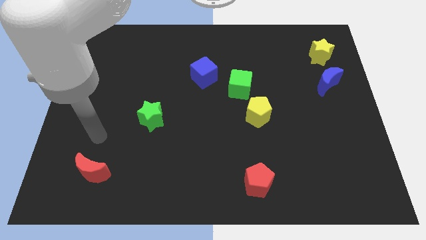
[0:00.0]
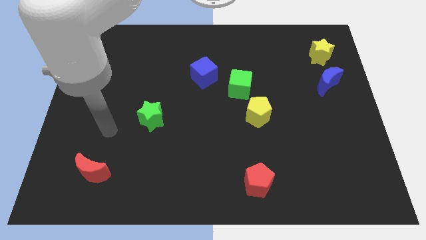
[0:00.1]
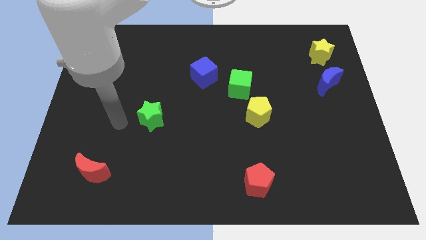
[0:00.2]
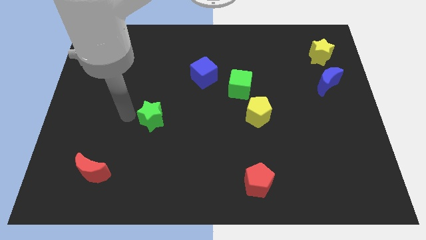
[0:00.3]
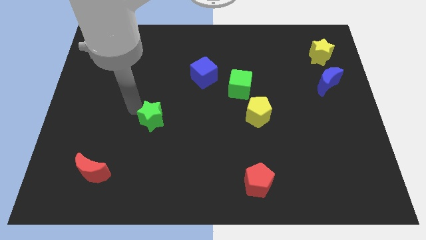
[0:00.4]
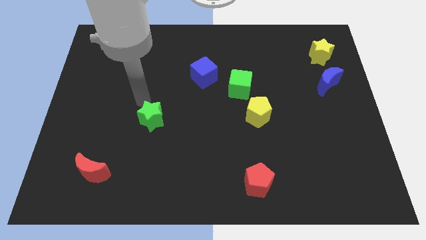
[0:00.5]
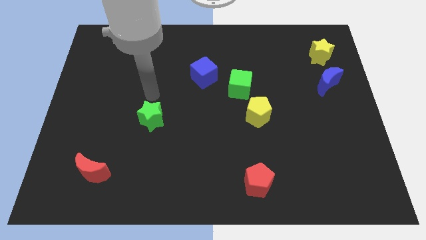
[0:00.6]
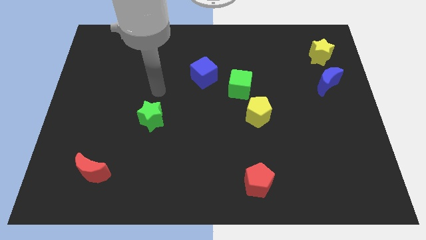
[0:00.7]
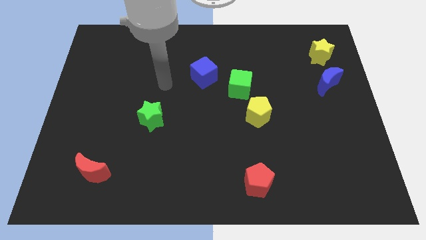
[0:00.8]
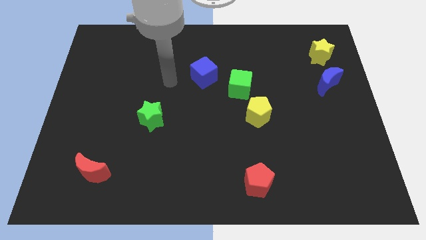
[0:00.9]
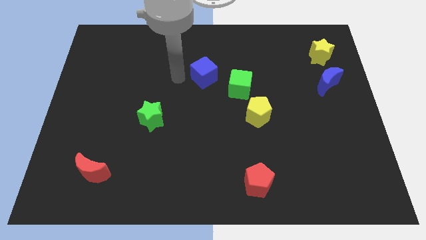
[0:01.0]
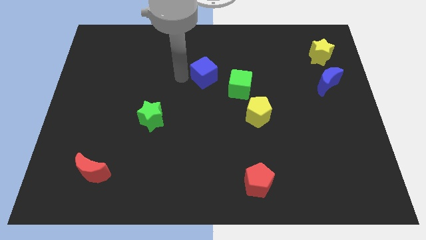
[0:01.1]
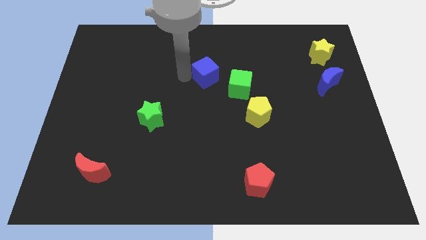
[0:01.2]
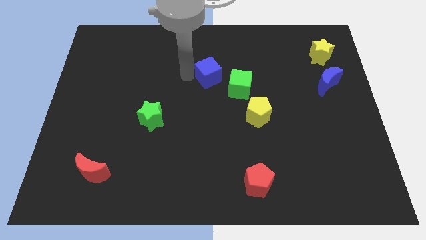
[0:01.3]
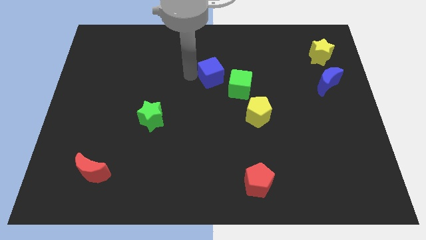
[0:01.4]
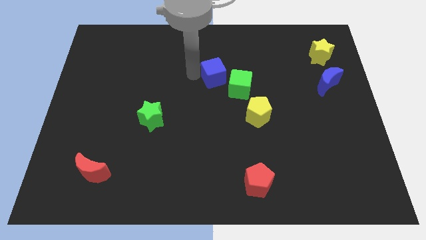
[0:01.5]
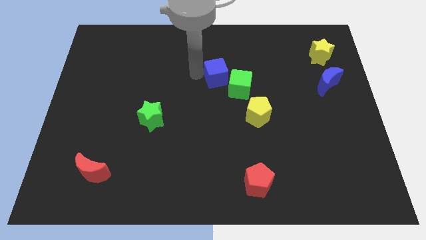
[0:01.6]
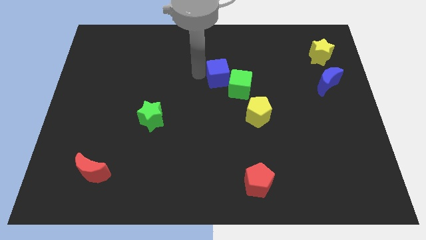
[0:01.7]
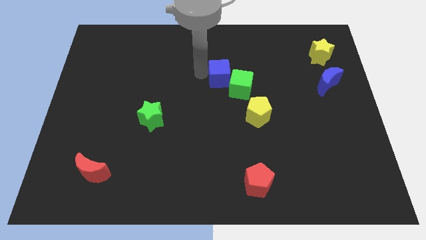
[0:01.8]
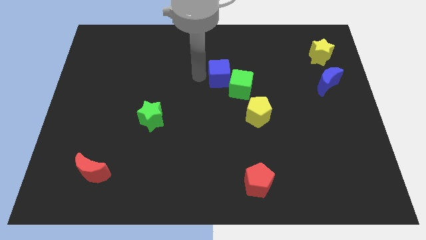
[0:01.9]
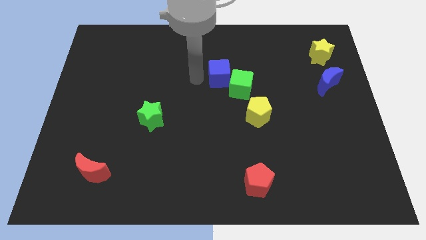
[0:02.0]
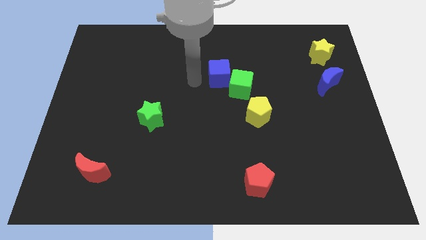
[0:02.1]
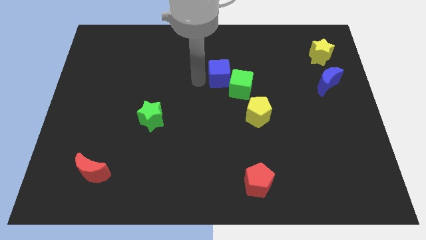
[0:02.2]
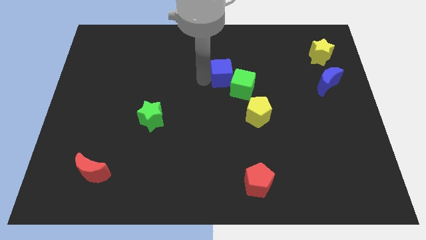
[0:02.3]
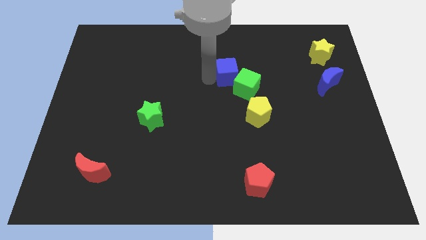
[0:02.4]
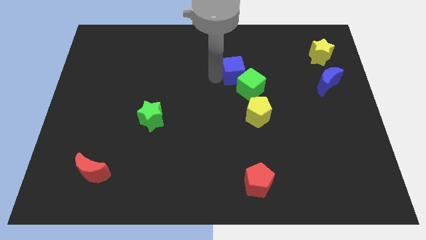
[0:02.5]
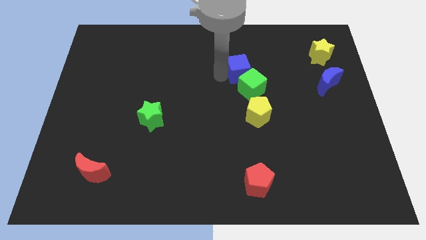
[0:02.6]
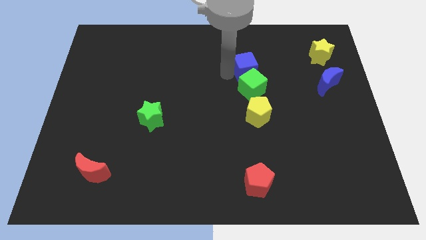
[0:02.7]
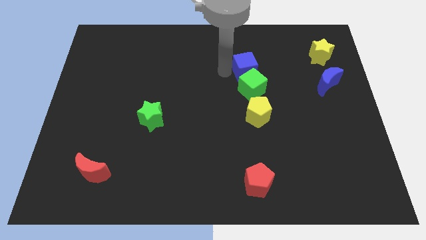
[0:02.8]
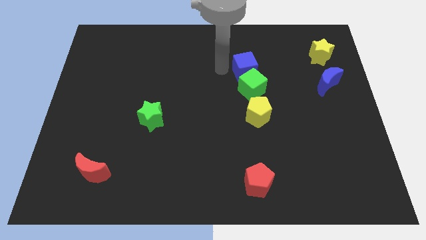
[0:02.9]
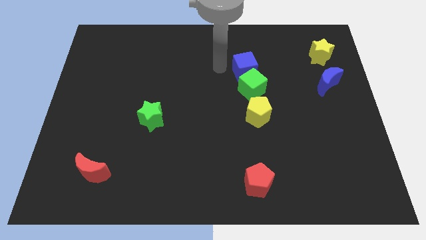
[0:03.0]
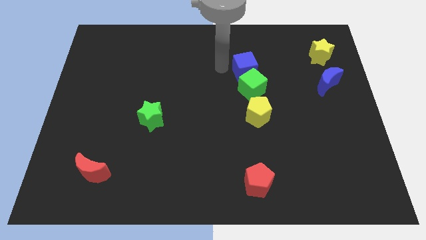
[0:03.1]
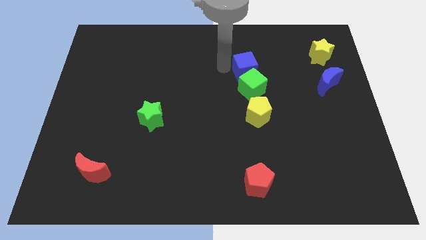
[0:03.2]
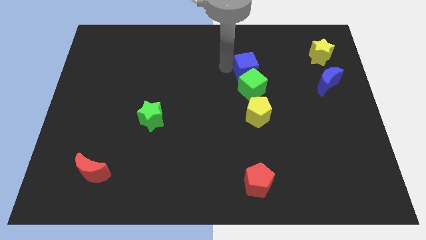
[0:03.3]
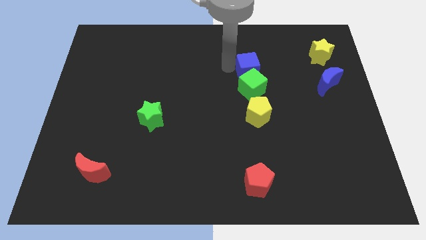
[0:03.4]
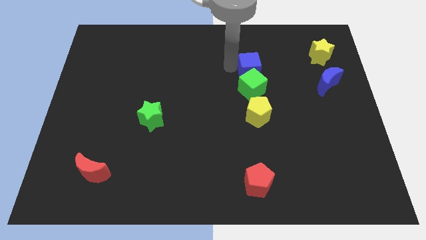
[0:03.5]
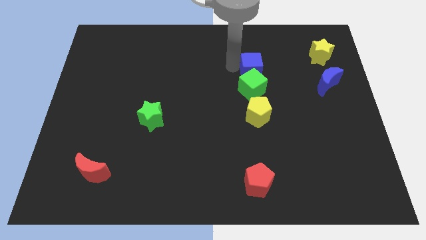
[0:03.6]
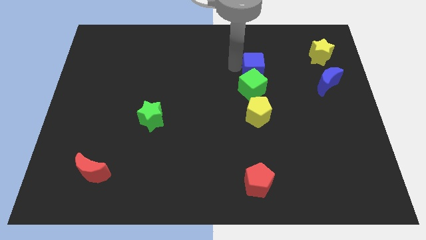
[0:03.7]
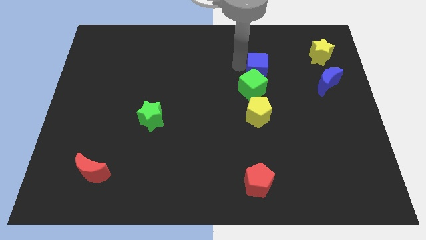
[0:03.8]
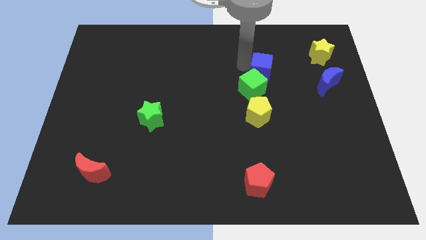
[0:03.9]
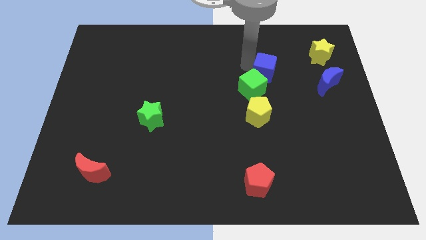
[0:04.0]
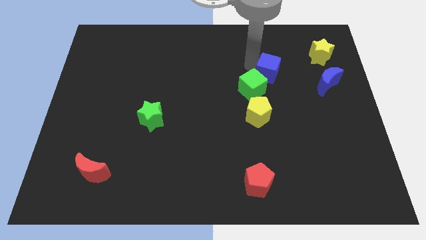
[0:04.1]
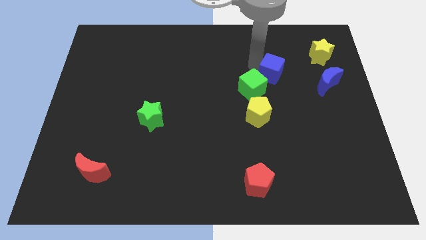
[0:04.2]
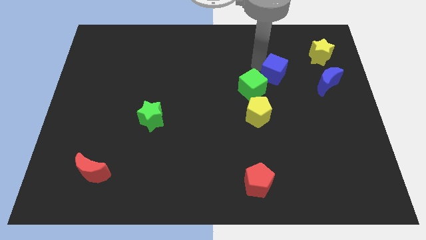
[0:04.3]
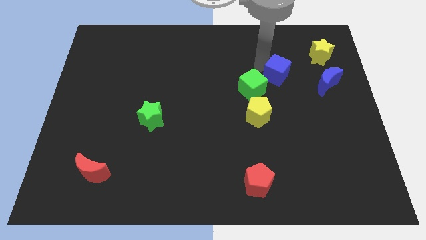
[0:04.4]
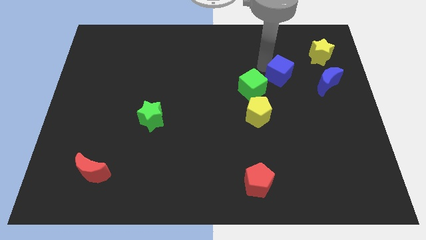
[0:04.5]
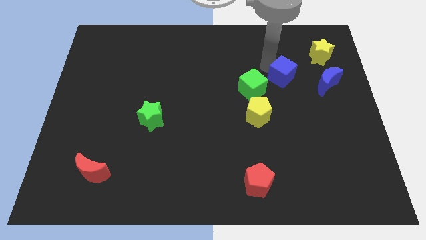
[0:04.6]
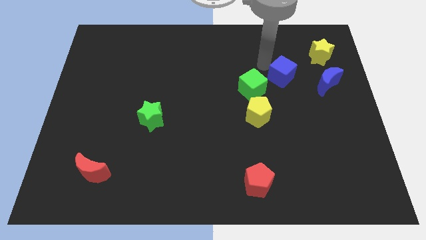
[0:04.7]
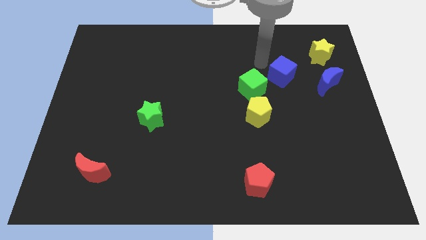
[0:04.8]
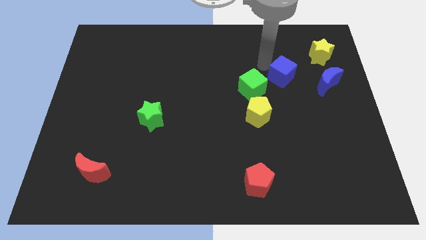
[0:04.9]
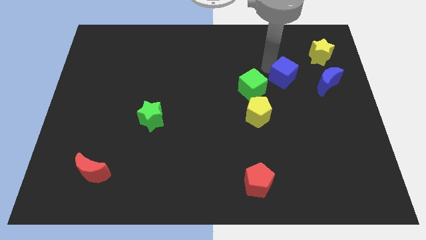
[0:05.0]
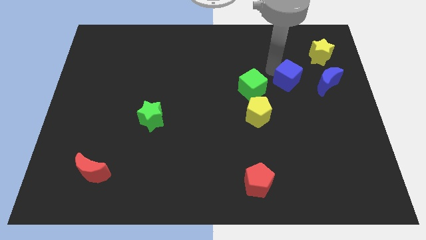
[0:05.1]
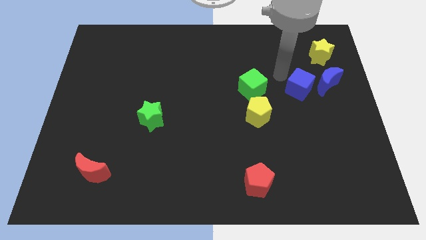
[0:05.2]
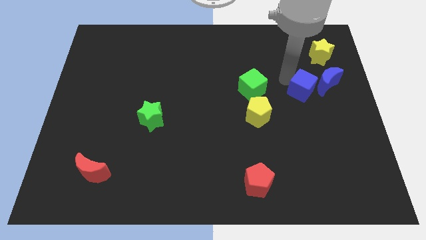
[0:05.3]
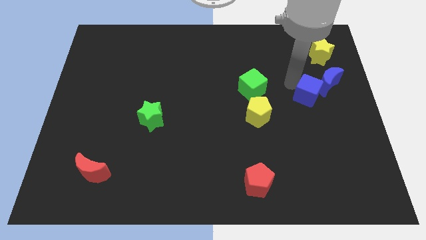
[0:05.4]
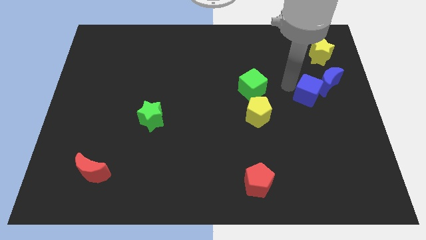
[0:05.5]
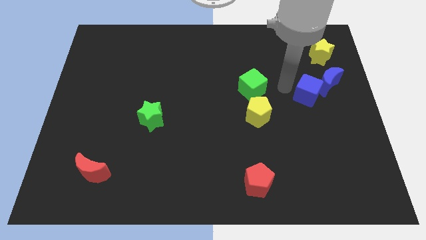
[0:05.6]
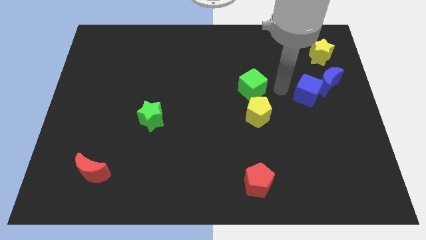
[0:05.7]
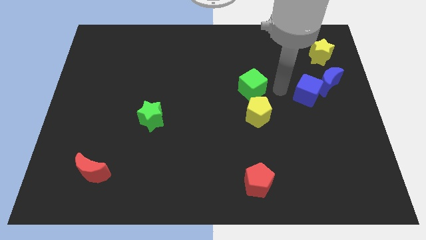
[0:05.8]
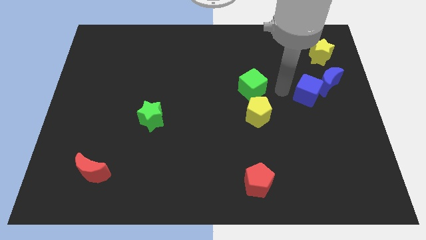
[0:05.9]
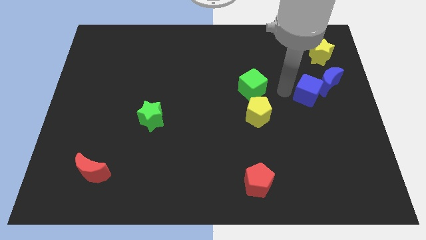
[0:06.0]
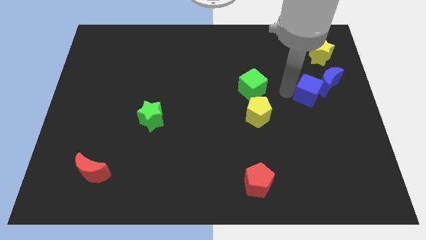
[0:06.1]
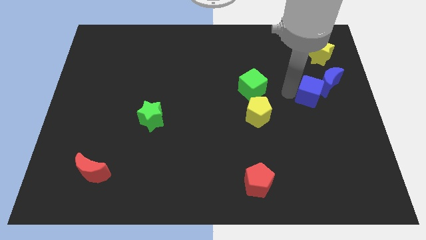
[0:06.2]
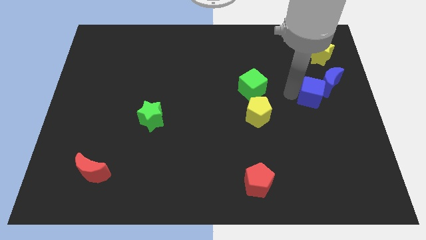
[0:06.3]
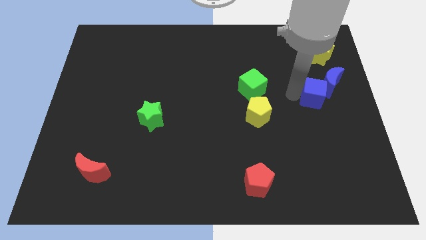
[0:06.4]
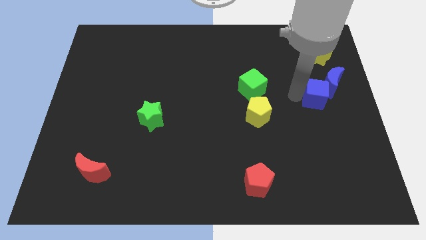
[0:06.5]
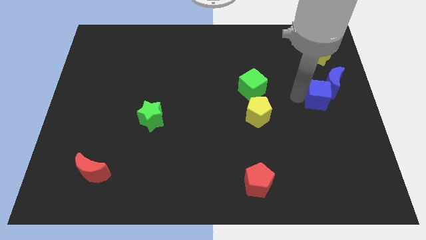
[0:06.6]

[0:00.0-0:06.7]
slide the blue cube to the center right
